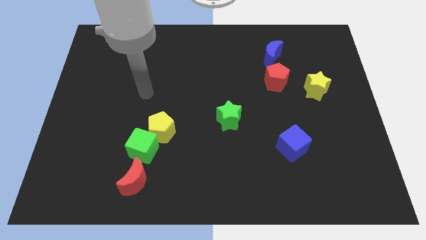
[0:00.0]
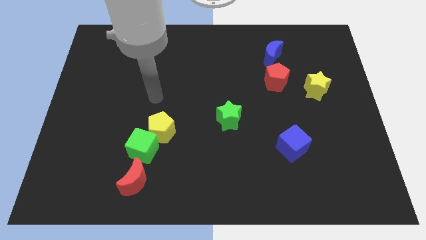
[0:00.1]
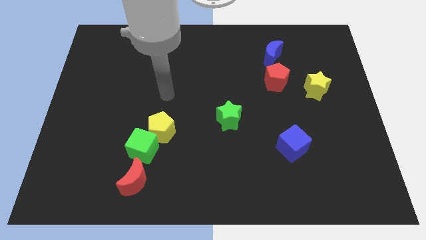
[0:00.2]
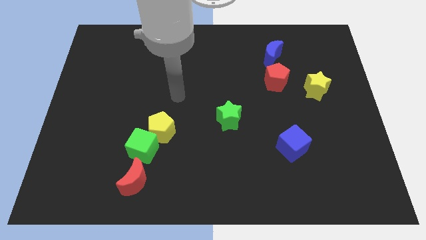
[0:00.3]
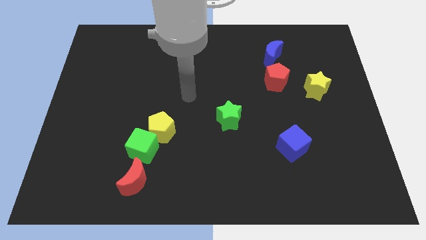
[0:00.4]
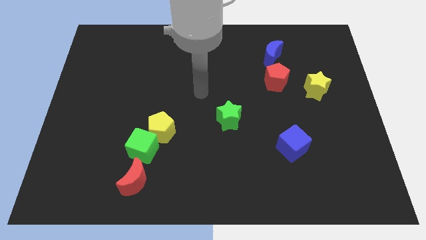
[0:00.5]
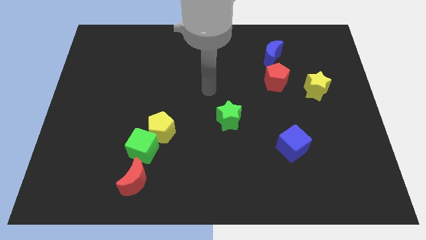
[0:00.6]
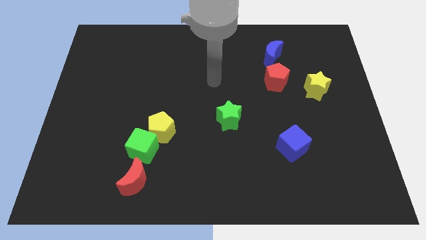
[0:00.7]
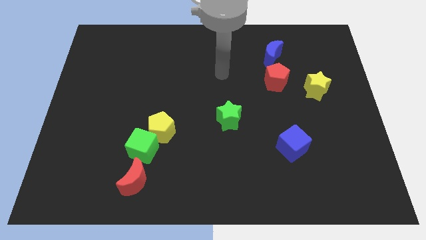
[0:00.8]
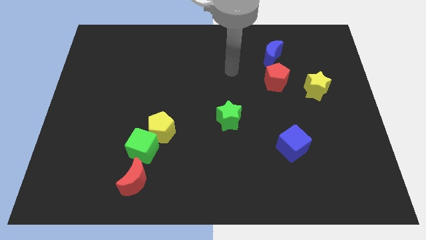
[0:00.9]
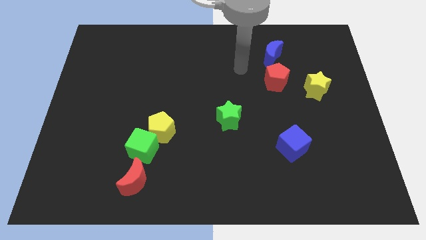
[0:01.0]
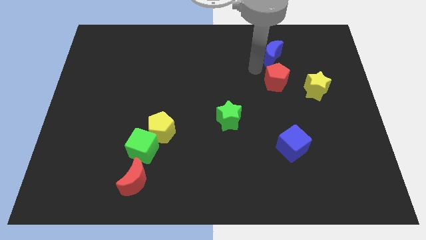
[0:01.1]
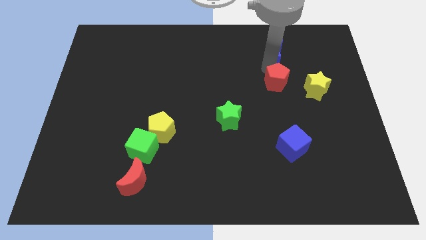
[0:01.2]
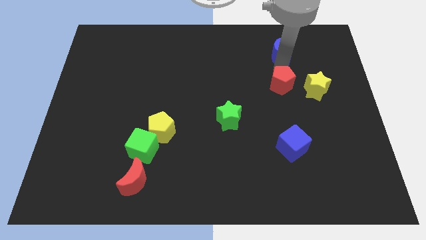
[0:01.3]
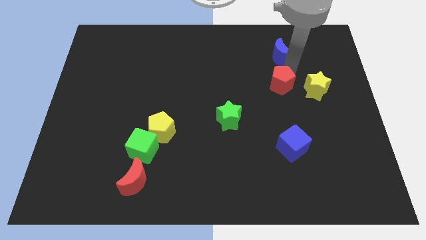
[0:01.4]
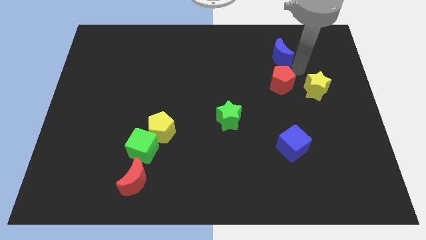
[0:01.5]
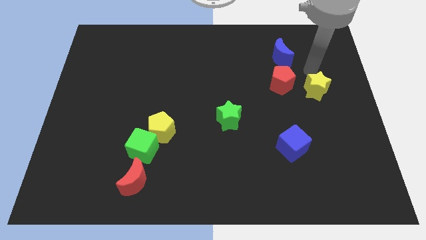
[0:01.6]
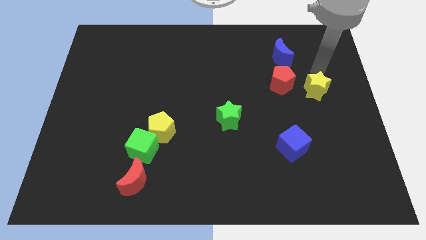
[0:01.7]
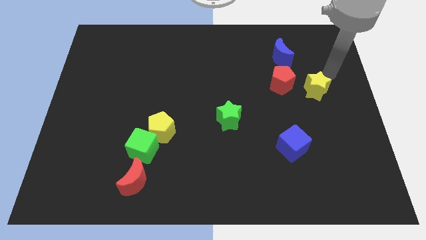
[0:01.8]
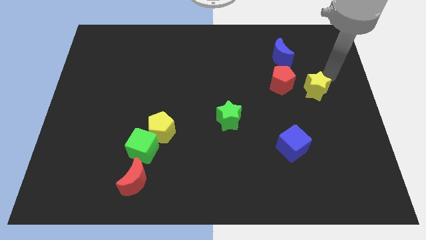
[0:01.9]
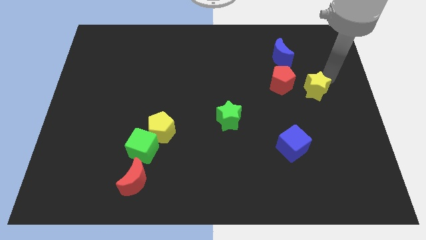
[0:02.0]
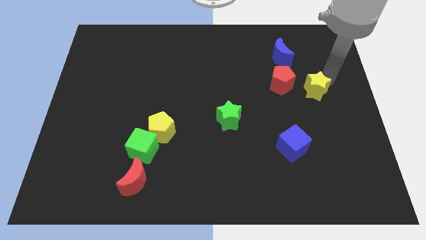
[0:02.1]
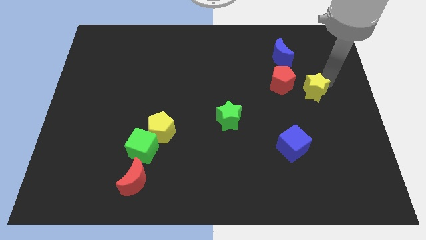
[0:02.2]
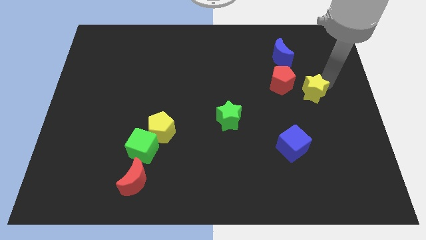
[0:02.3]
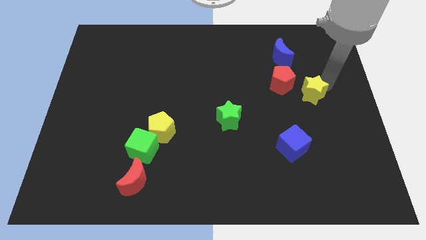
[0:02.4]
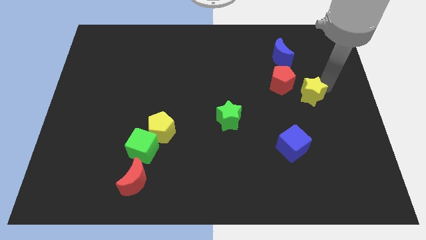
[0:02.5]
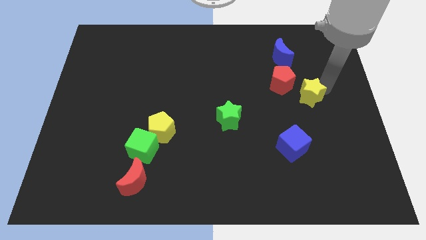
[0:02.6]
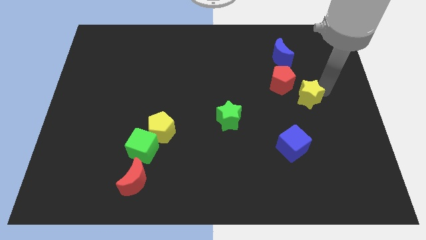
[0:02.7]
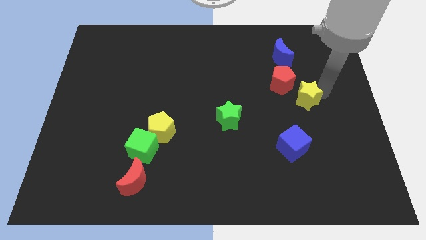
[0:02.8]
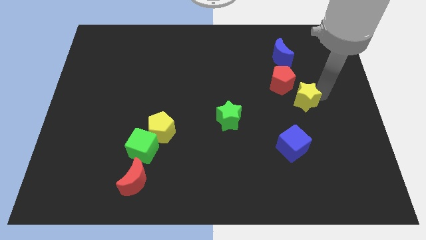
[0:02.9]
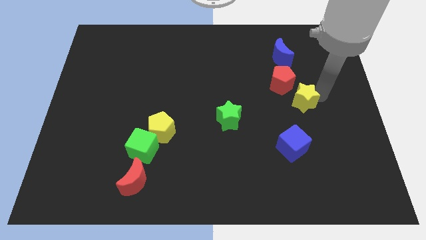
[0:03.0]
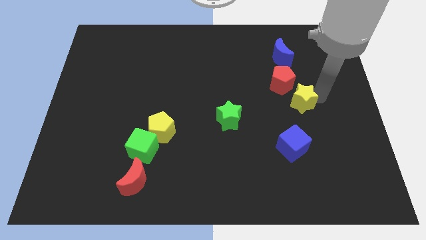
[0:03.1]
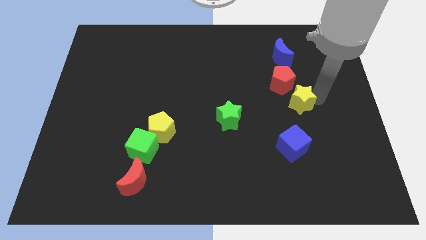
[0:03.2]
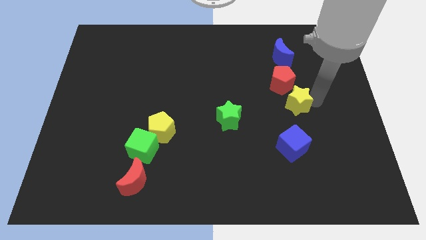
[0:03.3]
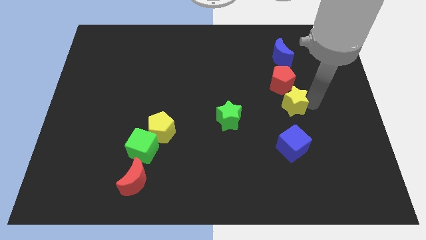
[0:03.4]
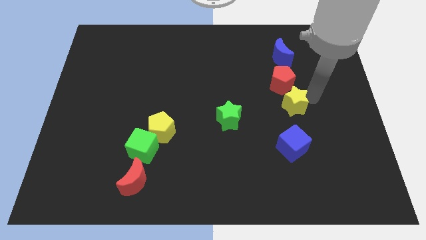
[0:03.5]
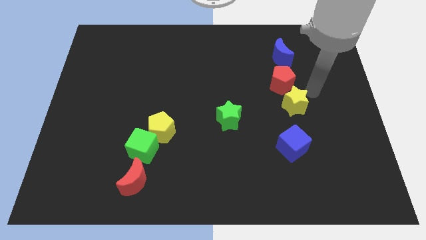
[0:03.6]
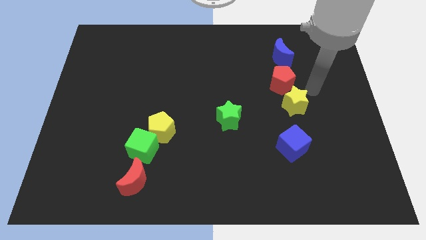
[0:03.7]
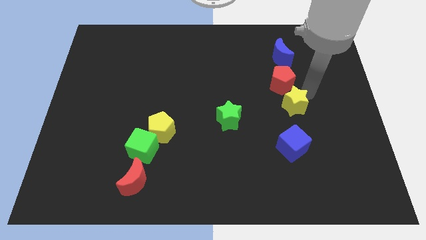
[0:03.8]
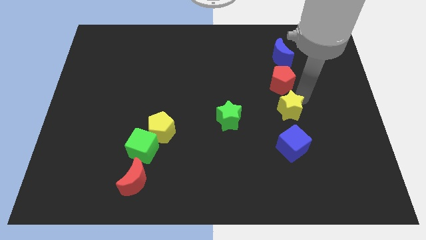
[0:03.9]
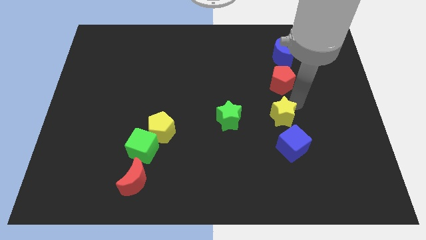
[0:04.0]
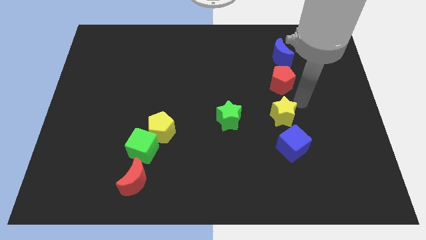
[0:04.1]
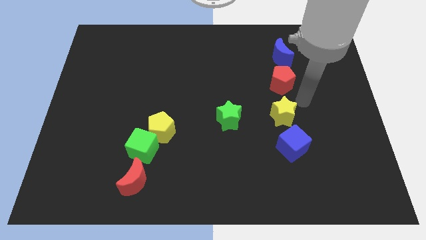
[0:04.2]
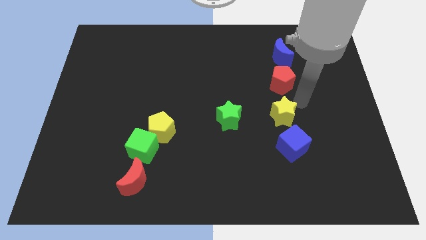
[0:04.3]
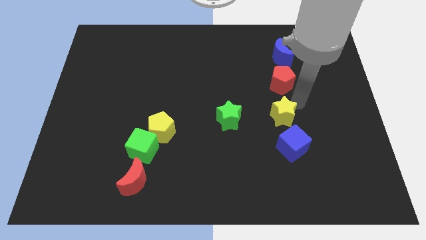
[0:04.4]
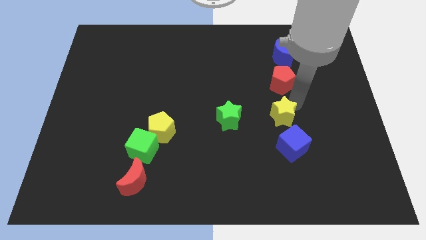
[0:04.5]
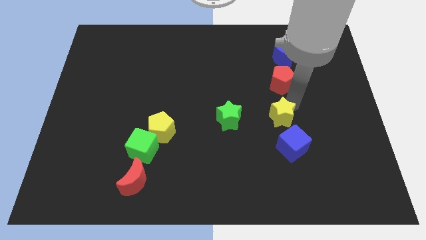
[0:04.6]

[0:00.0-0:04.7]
slide the yellow star diagonally up and to the left of the blue cube

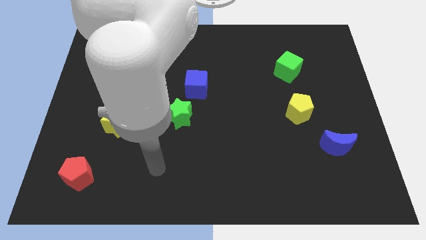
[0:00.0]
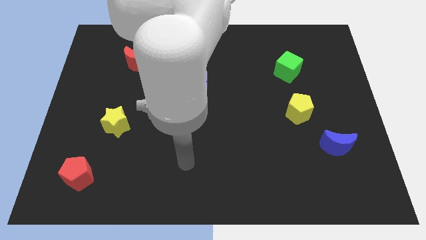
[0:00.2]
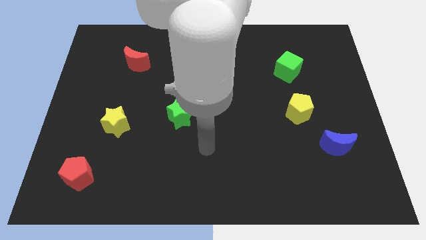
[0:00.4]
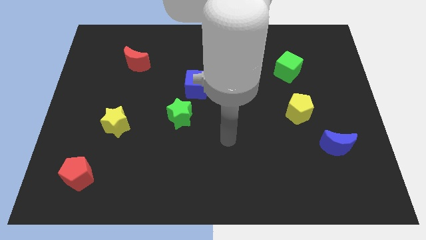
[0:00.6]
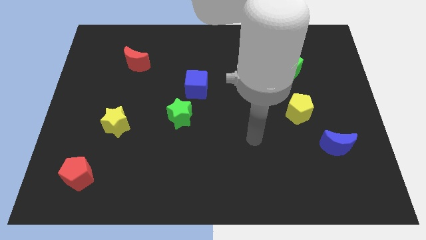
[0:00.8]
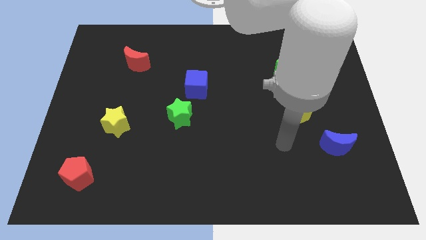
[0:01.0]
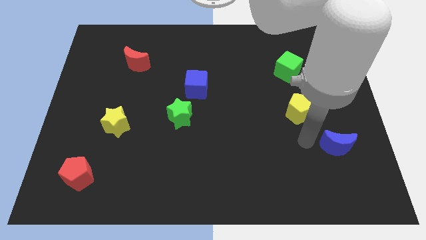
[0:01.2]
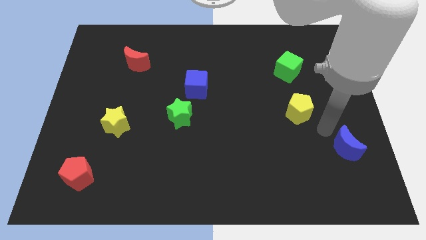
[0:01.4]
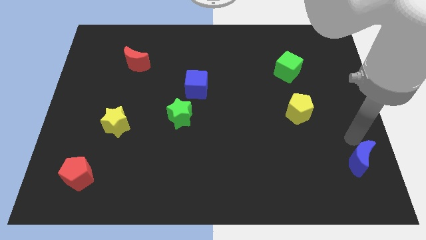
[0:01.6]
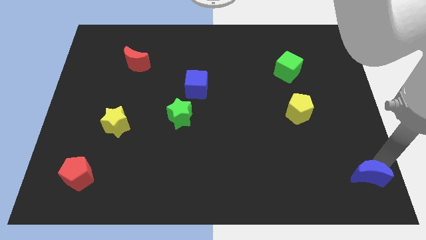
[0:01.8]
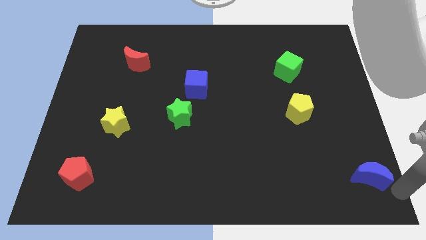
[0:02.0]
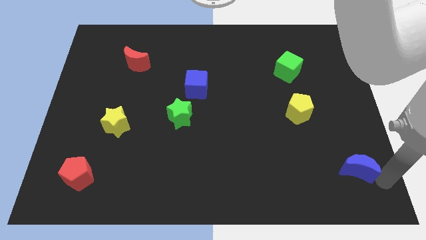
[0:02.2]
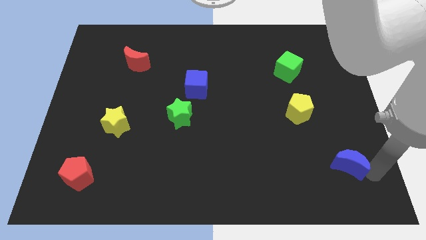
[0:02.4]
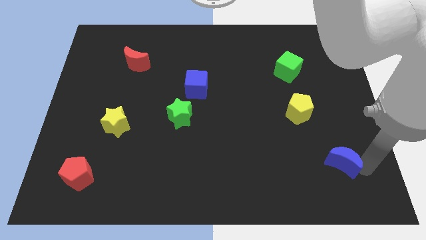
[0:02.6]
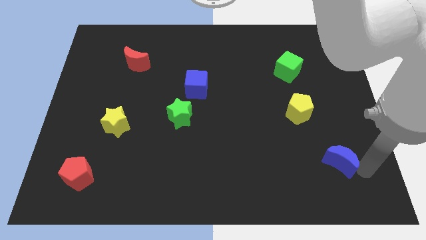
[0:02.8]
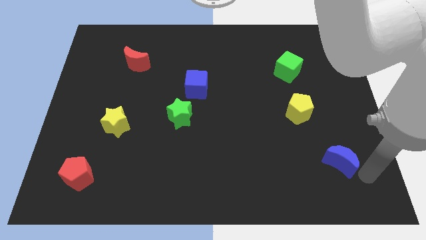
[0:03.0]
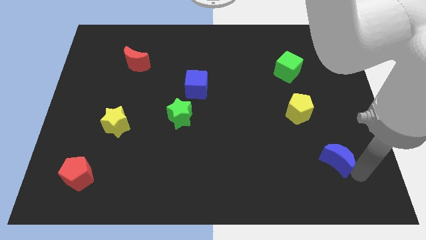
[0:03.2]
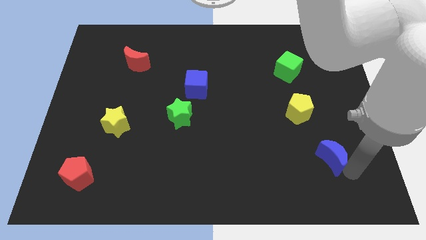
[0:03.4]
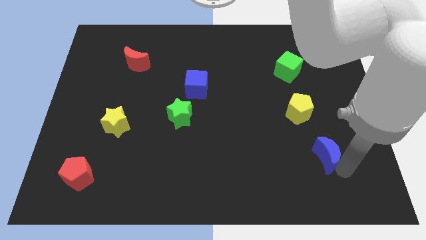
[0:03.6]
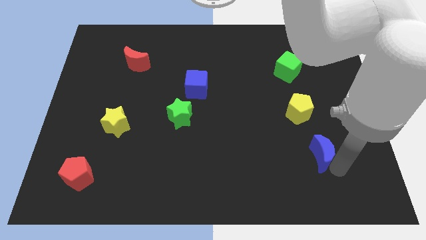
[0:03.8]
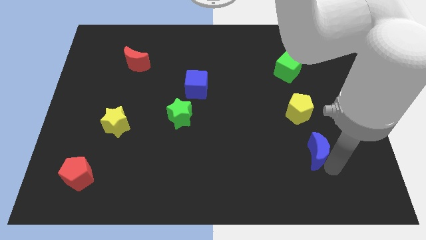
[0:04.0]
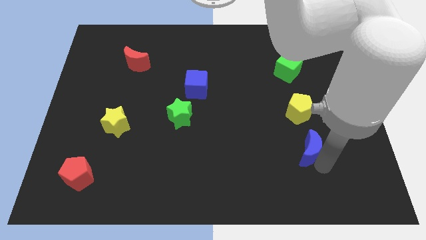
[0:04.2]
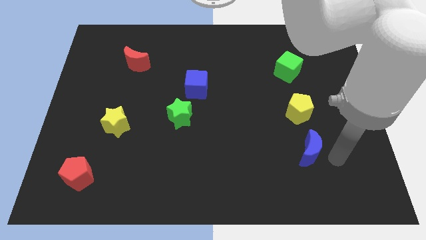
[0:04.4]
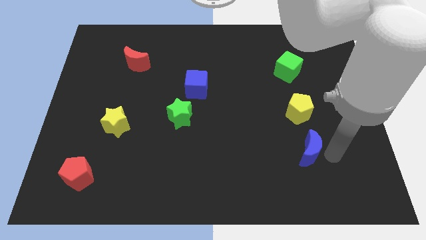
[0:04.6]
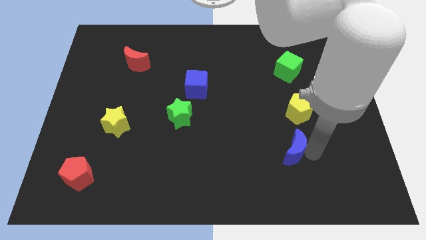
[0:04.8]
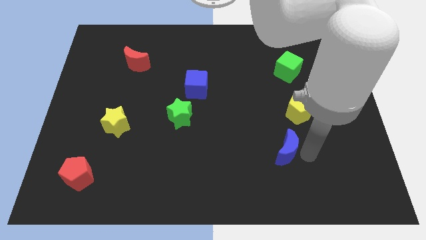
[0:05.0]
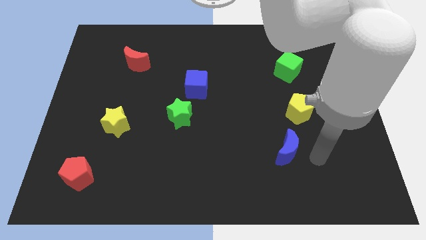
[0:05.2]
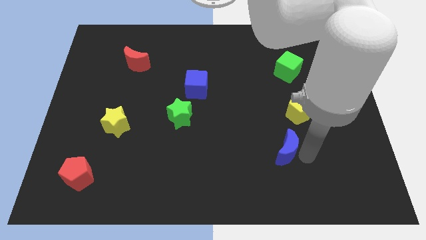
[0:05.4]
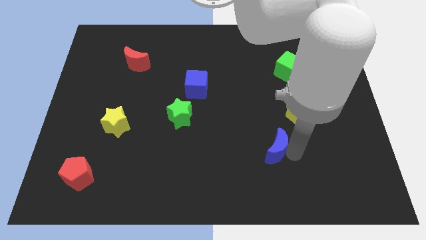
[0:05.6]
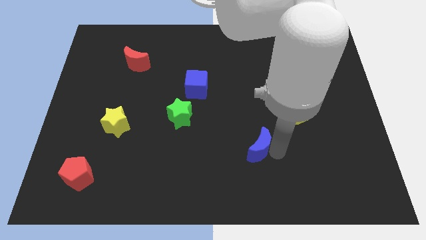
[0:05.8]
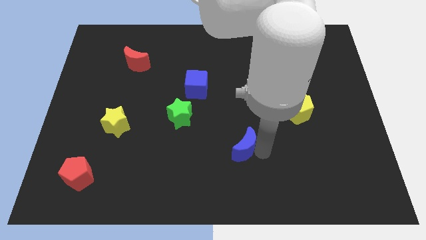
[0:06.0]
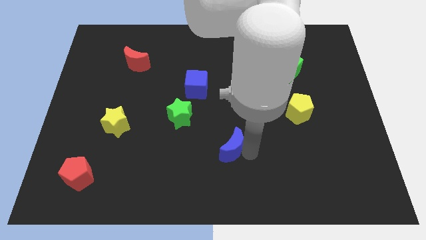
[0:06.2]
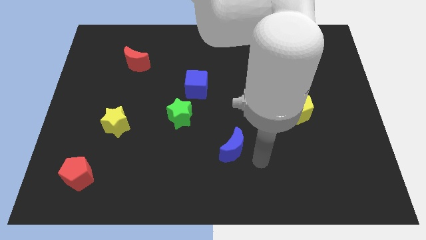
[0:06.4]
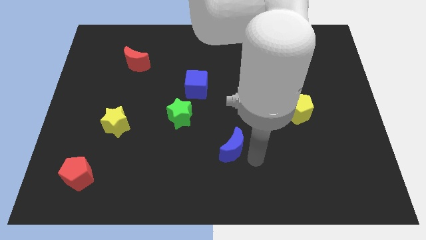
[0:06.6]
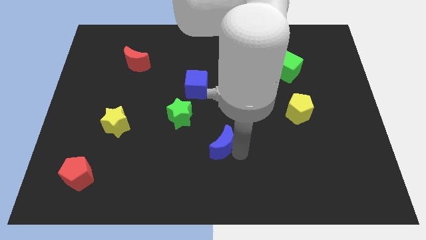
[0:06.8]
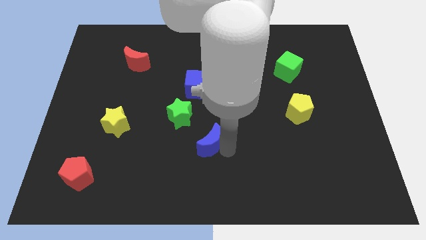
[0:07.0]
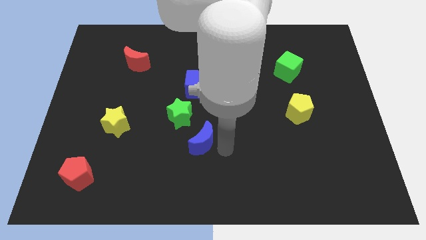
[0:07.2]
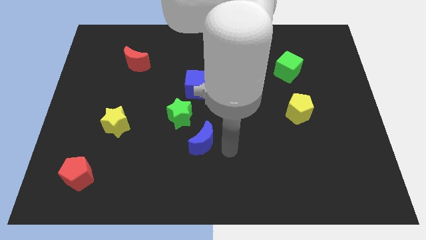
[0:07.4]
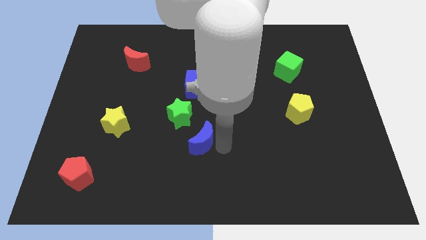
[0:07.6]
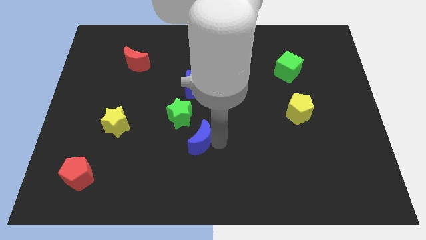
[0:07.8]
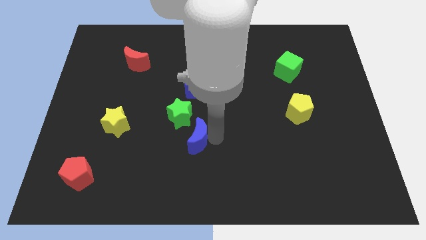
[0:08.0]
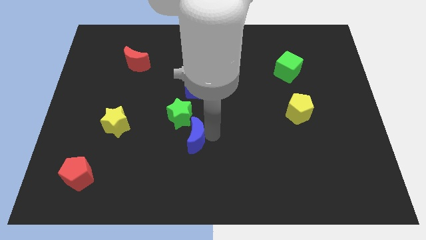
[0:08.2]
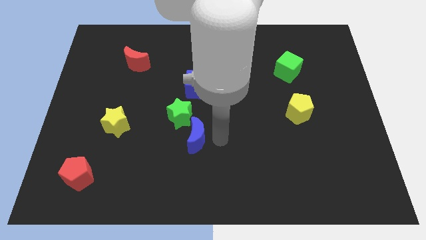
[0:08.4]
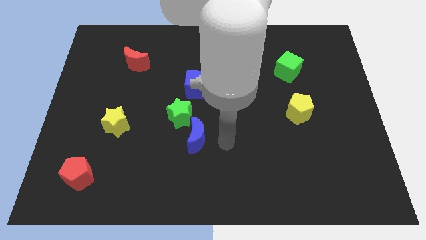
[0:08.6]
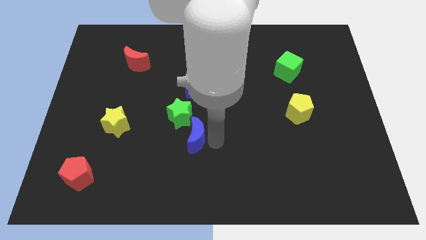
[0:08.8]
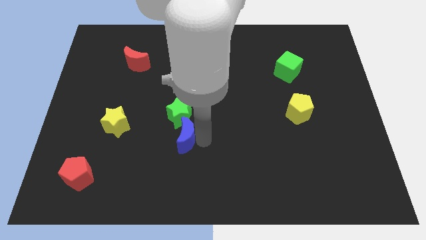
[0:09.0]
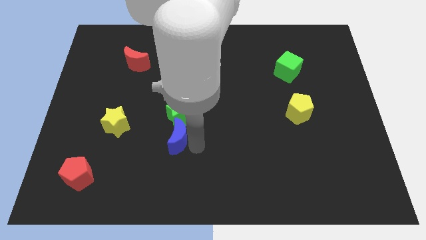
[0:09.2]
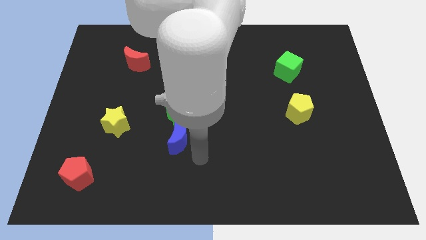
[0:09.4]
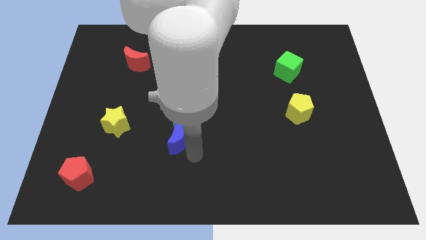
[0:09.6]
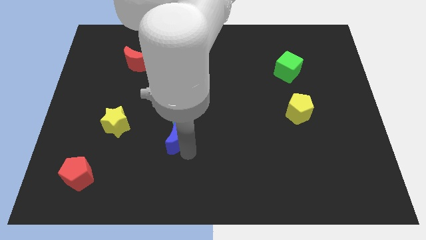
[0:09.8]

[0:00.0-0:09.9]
slide the blue moon just right of the yellow star
